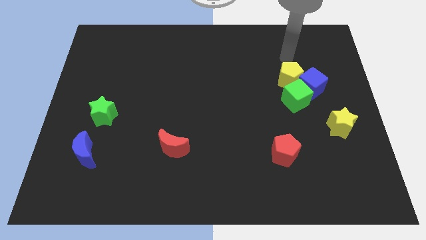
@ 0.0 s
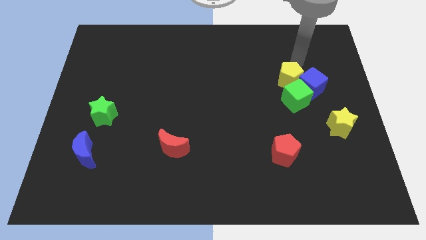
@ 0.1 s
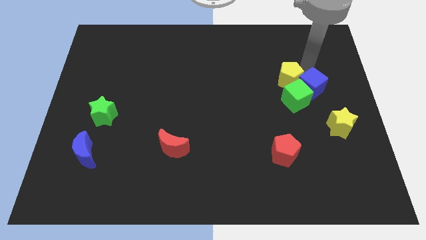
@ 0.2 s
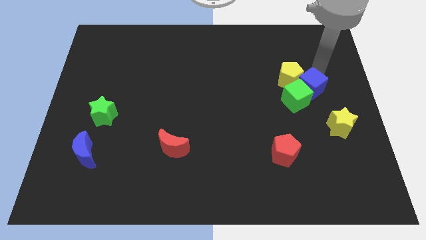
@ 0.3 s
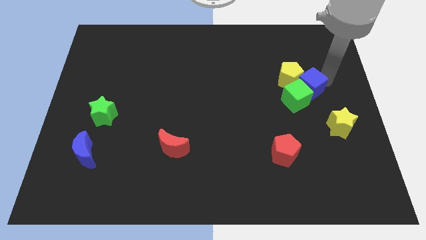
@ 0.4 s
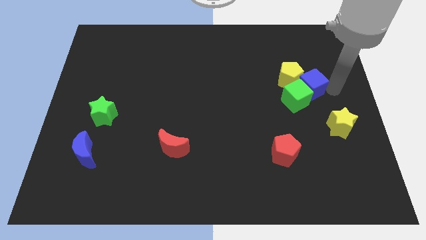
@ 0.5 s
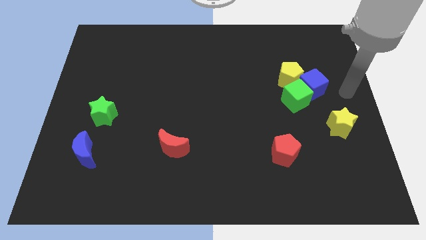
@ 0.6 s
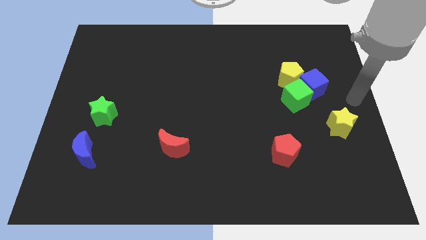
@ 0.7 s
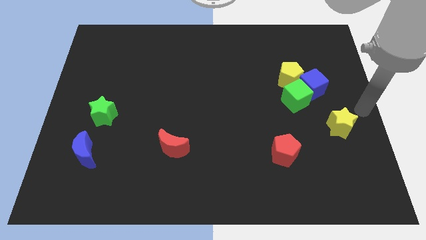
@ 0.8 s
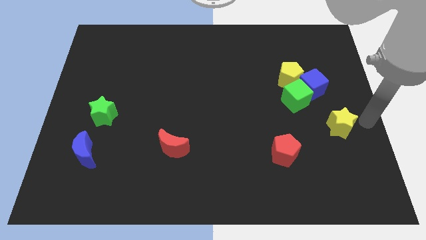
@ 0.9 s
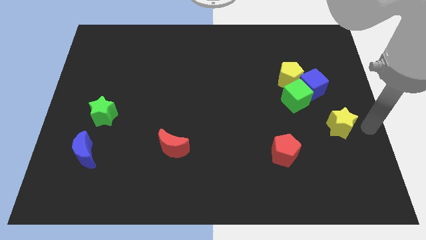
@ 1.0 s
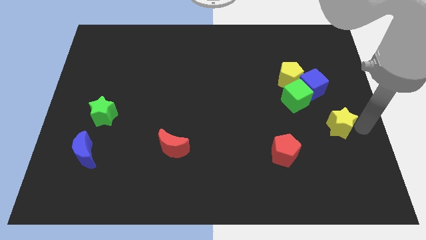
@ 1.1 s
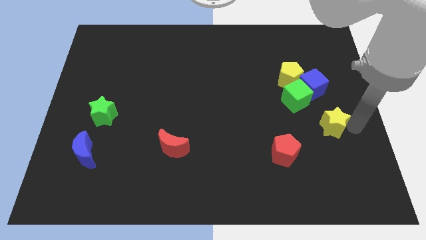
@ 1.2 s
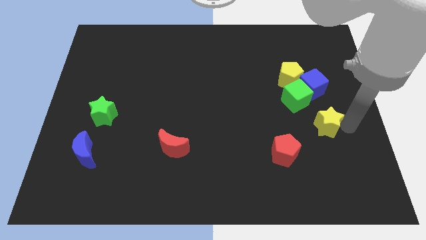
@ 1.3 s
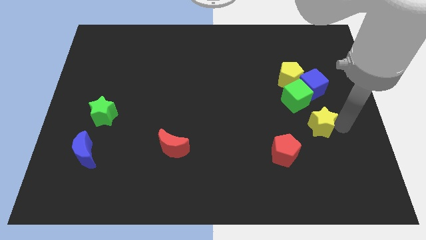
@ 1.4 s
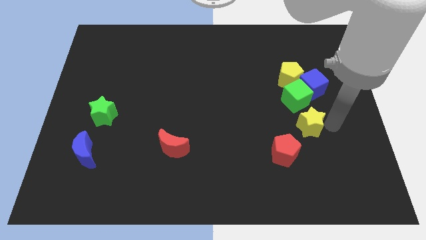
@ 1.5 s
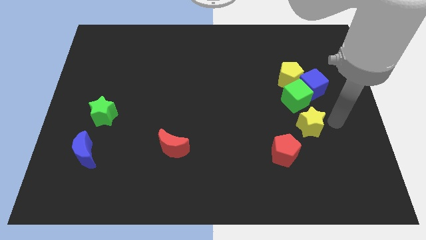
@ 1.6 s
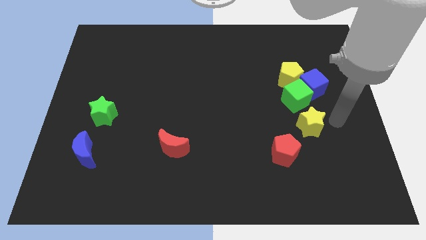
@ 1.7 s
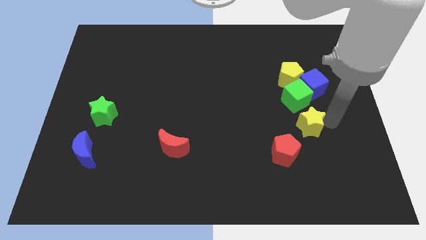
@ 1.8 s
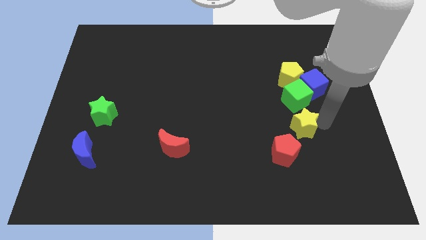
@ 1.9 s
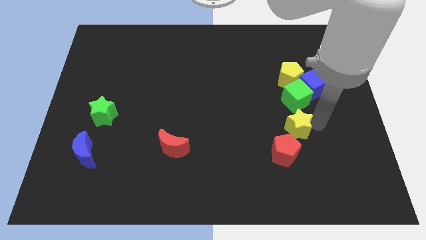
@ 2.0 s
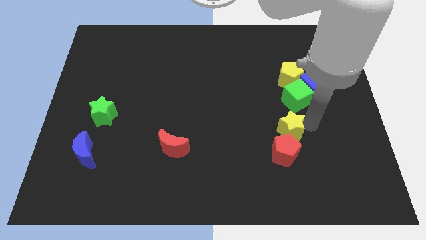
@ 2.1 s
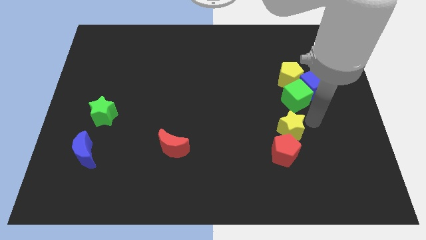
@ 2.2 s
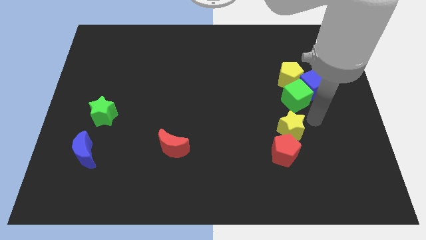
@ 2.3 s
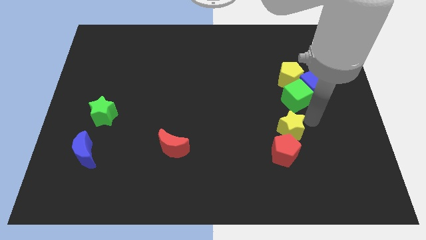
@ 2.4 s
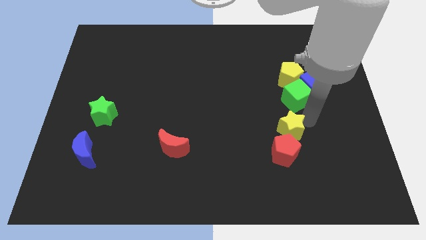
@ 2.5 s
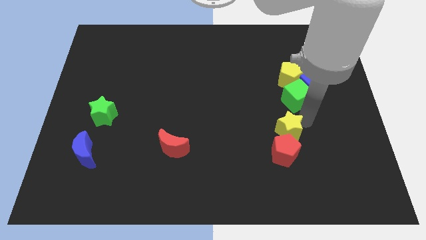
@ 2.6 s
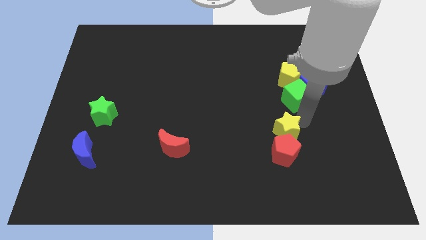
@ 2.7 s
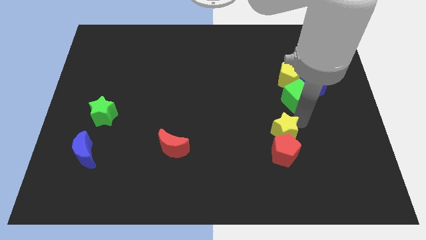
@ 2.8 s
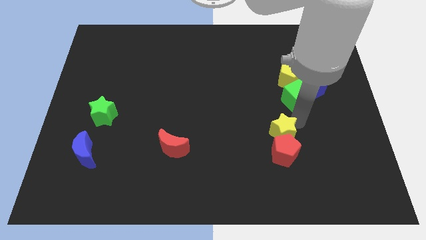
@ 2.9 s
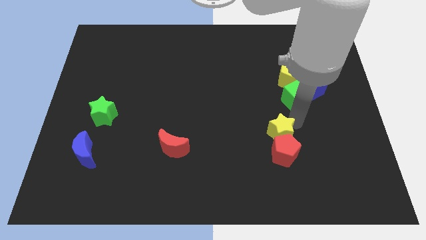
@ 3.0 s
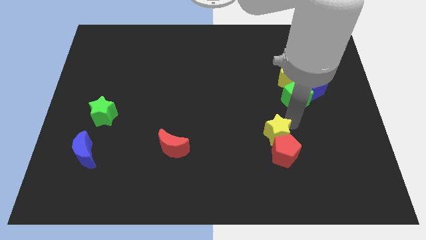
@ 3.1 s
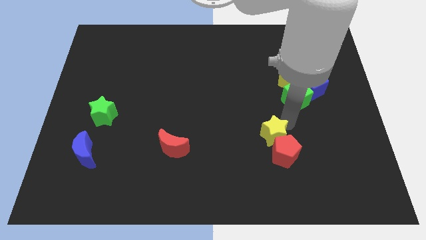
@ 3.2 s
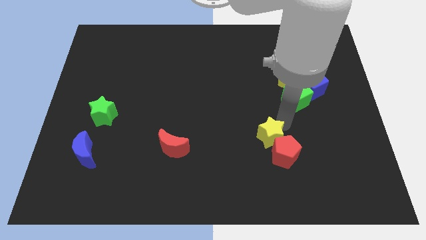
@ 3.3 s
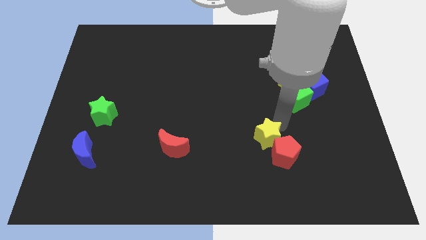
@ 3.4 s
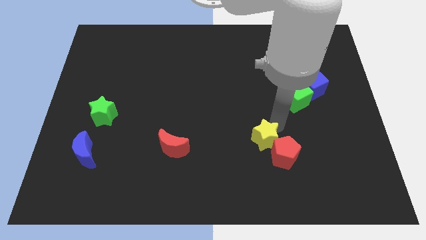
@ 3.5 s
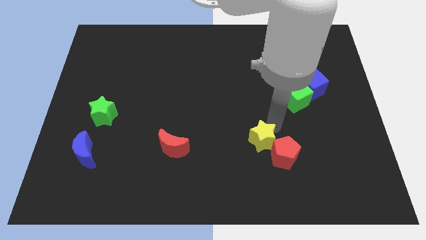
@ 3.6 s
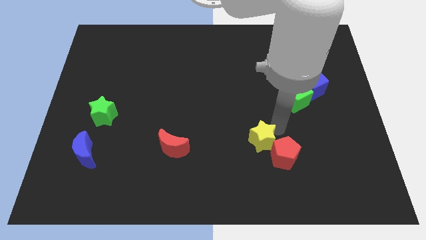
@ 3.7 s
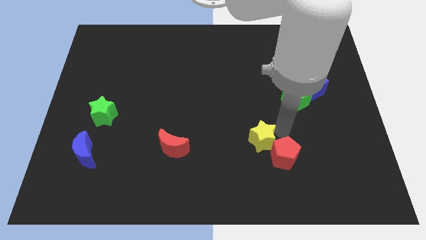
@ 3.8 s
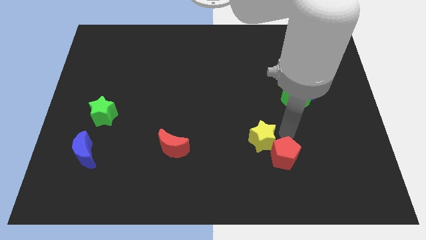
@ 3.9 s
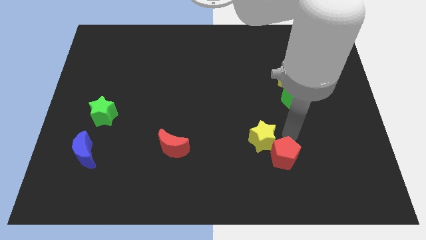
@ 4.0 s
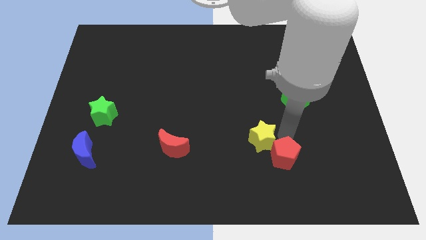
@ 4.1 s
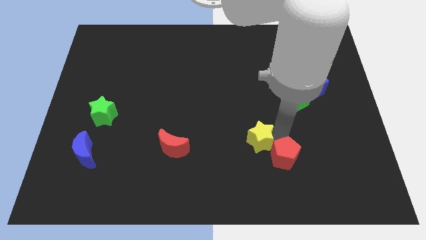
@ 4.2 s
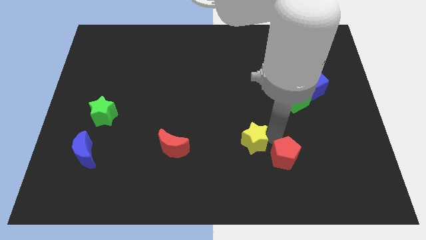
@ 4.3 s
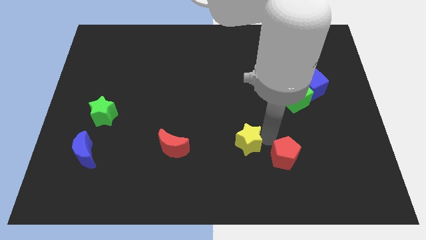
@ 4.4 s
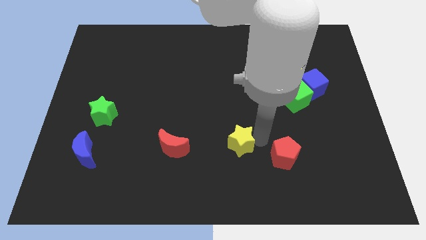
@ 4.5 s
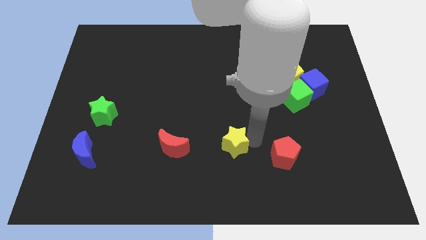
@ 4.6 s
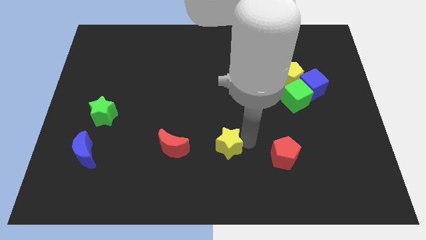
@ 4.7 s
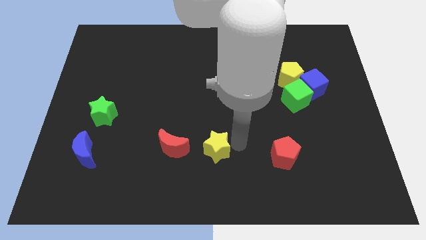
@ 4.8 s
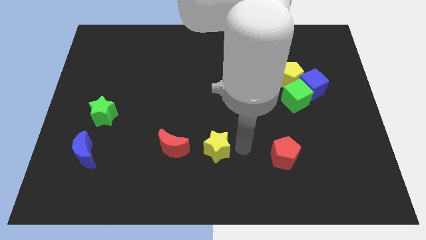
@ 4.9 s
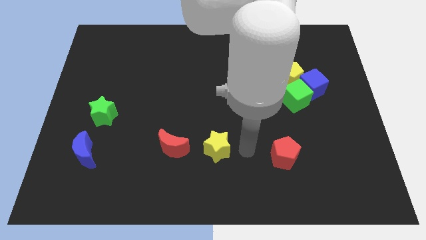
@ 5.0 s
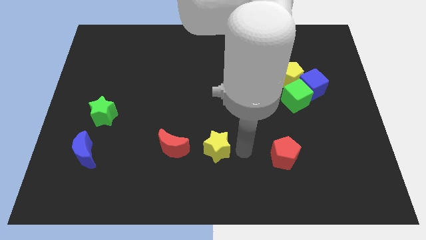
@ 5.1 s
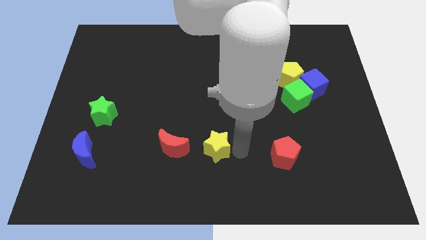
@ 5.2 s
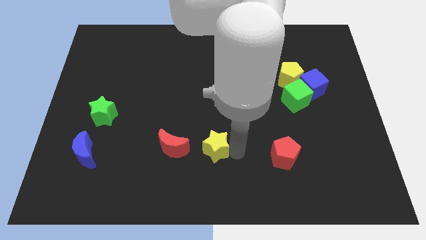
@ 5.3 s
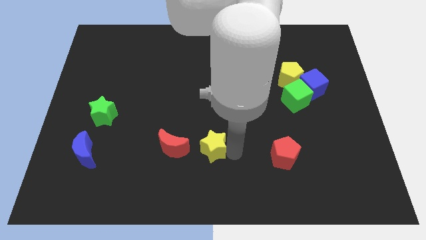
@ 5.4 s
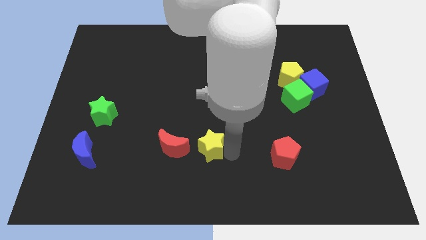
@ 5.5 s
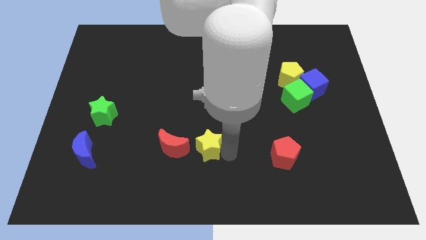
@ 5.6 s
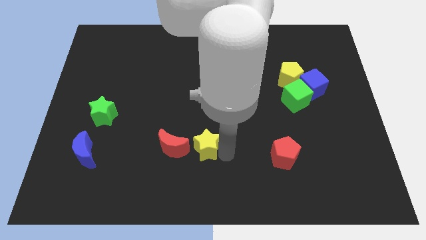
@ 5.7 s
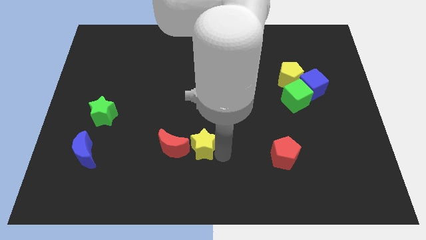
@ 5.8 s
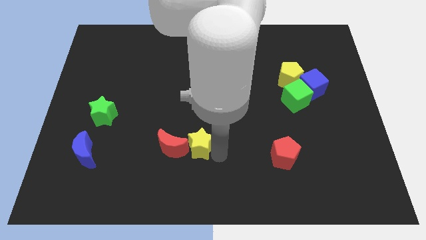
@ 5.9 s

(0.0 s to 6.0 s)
slide the yellow star close to the red moon

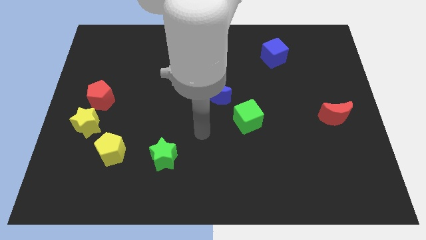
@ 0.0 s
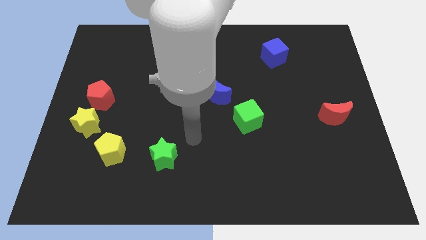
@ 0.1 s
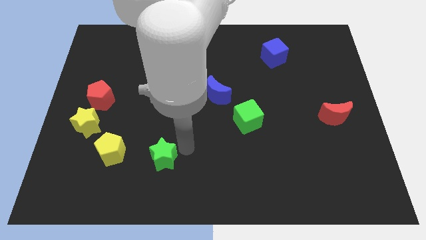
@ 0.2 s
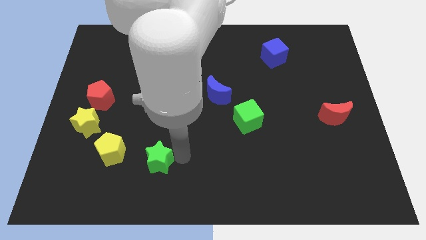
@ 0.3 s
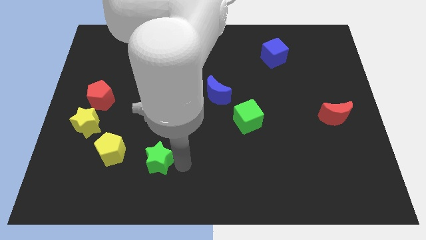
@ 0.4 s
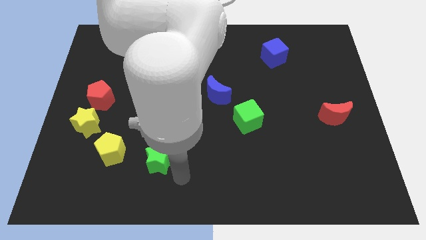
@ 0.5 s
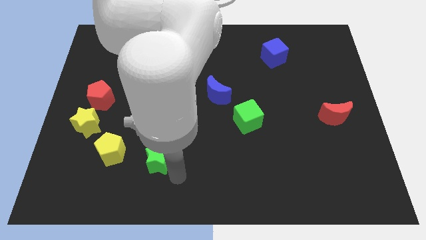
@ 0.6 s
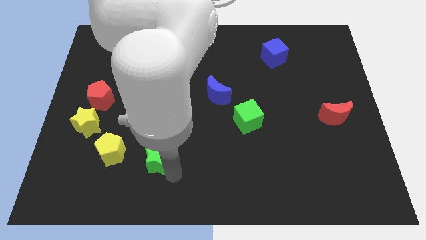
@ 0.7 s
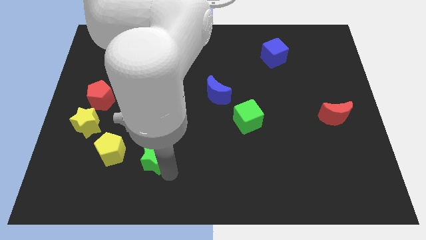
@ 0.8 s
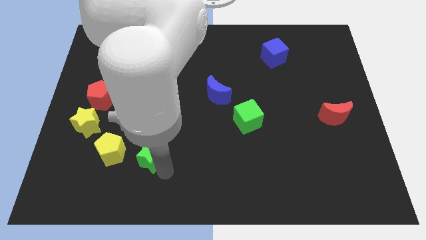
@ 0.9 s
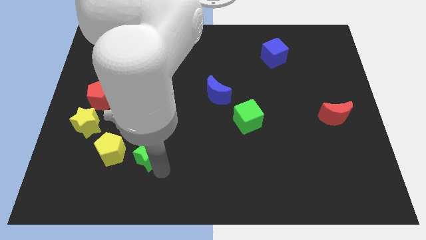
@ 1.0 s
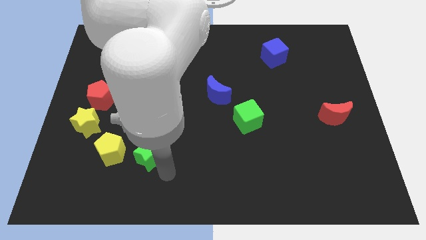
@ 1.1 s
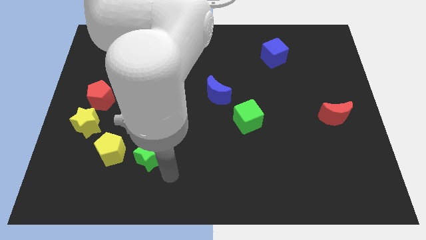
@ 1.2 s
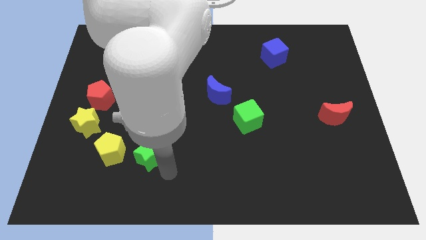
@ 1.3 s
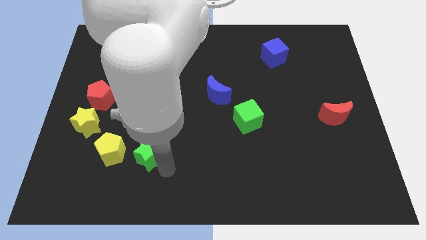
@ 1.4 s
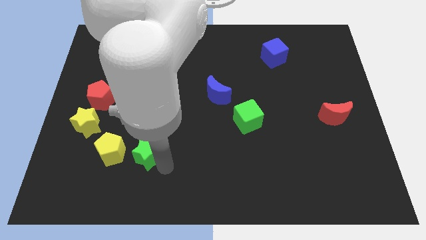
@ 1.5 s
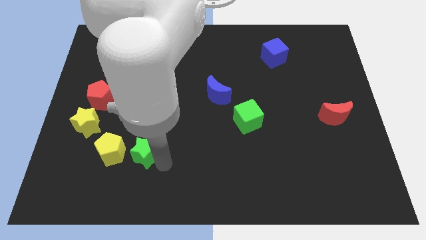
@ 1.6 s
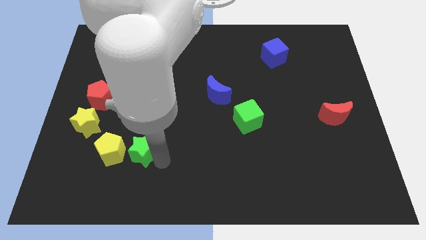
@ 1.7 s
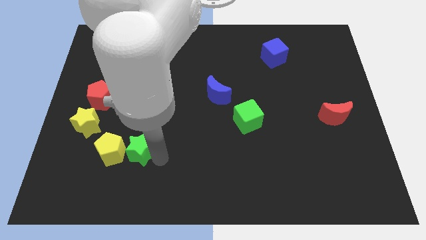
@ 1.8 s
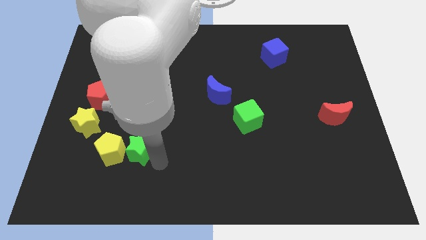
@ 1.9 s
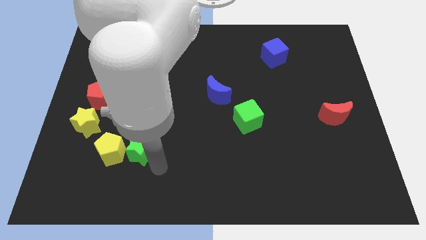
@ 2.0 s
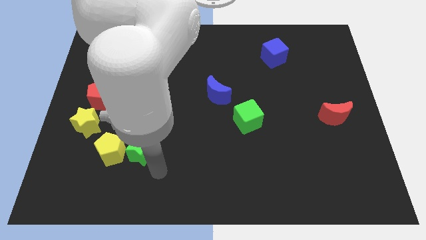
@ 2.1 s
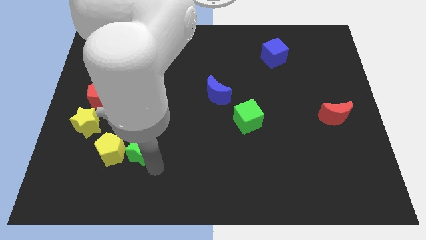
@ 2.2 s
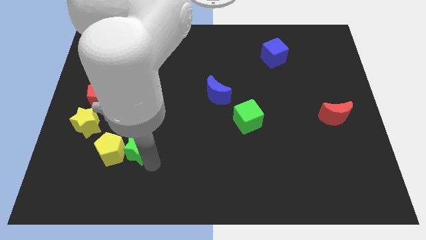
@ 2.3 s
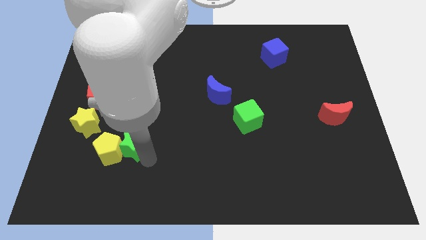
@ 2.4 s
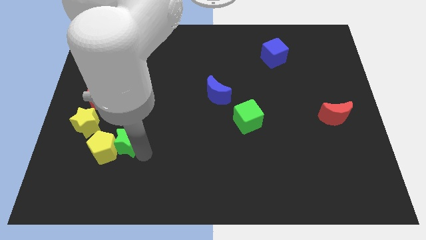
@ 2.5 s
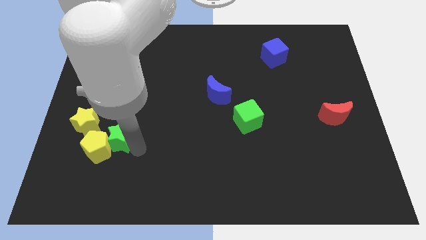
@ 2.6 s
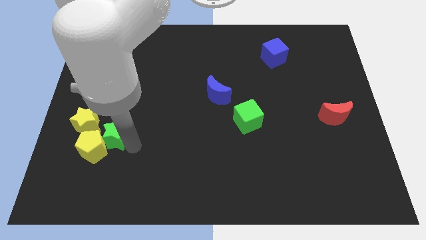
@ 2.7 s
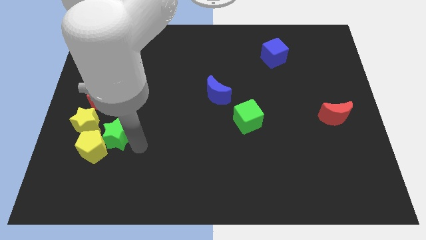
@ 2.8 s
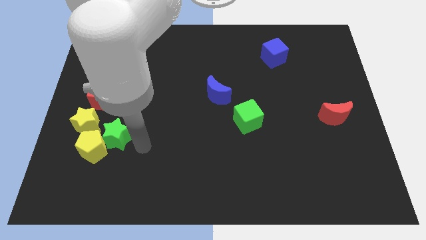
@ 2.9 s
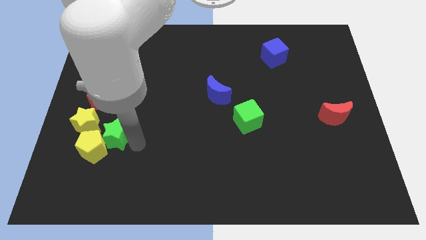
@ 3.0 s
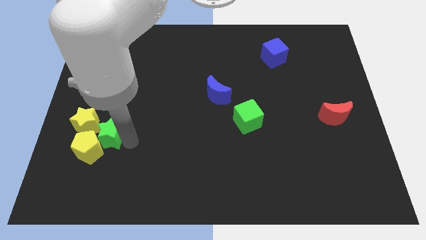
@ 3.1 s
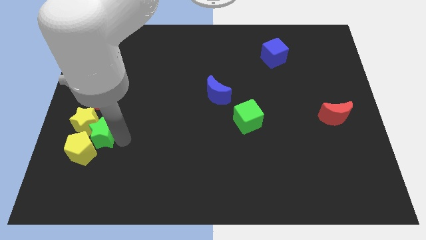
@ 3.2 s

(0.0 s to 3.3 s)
put the green star close to the yellow star
